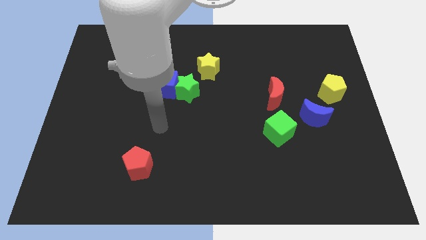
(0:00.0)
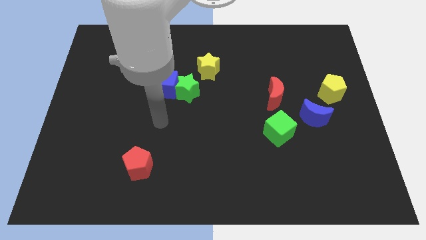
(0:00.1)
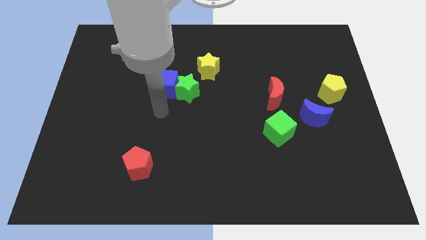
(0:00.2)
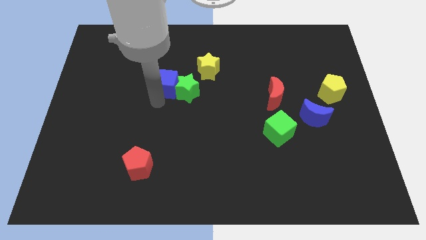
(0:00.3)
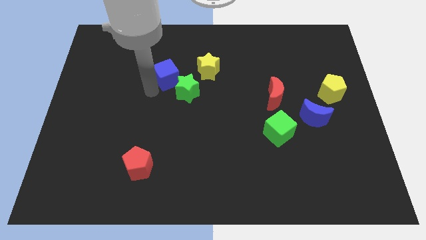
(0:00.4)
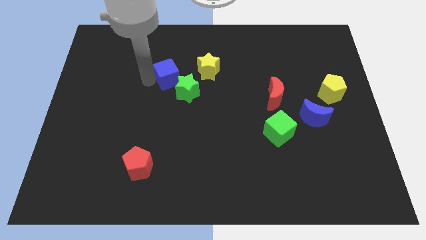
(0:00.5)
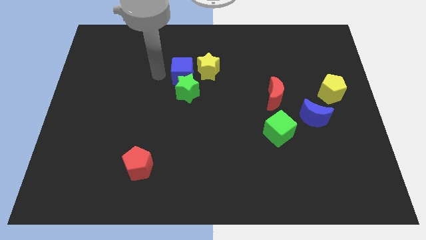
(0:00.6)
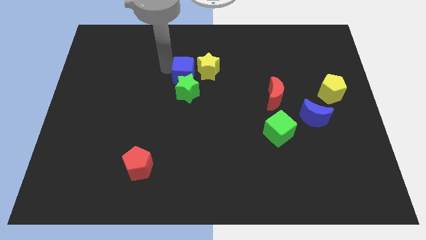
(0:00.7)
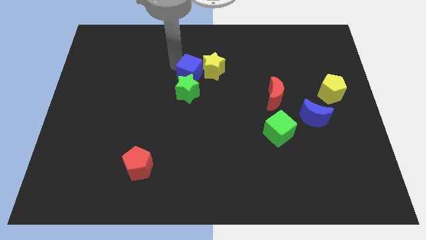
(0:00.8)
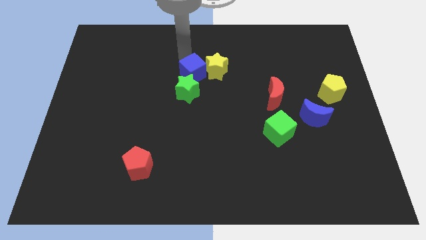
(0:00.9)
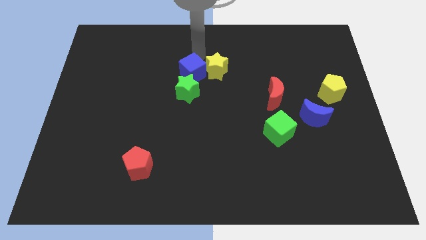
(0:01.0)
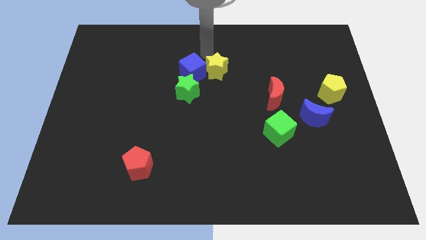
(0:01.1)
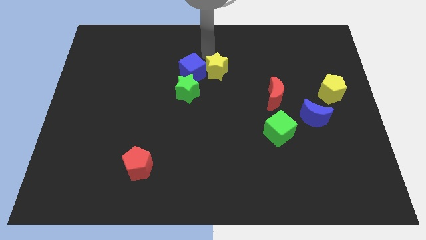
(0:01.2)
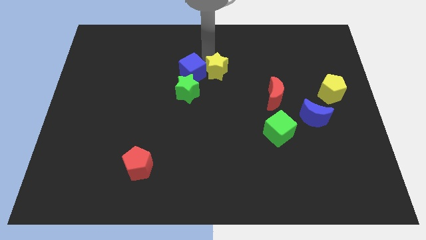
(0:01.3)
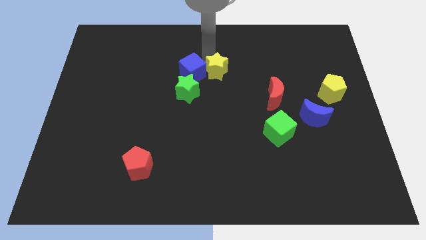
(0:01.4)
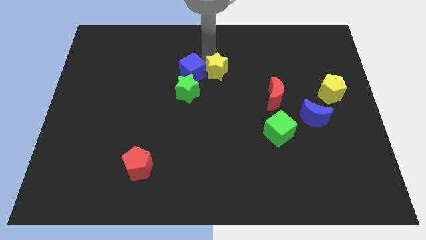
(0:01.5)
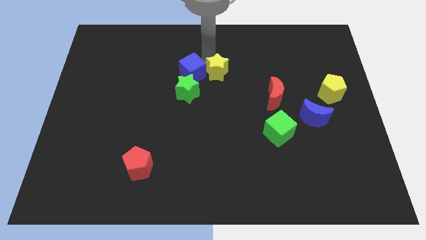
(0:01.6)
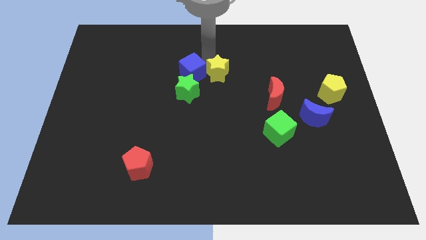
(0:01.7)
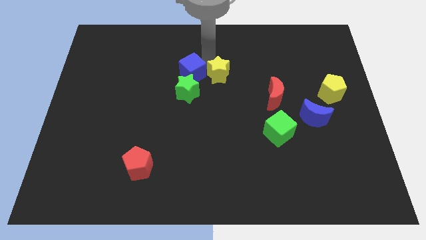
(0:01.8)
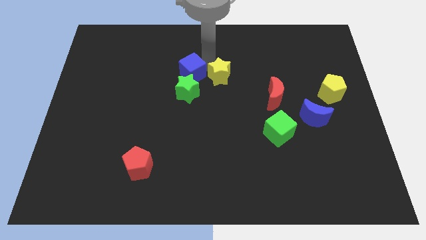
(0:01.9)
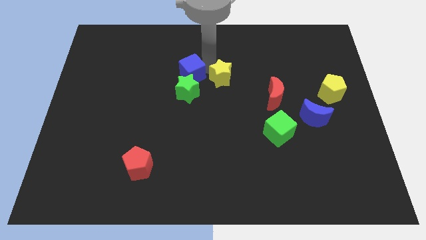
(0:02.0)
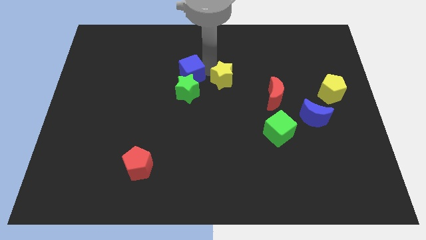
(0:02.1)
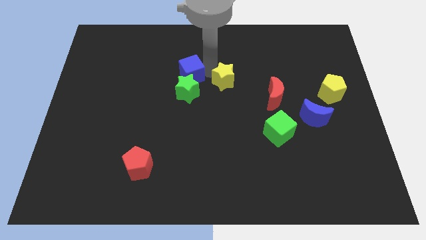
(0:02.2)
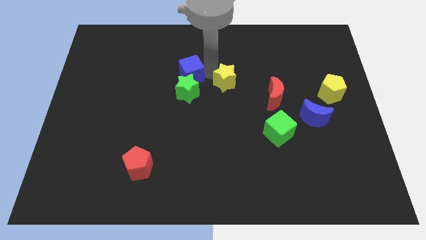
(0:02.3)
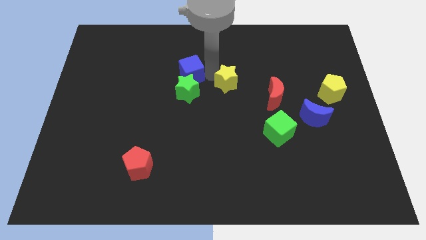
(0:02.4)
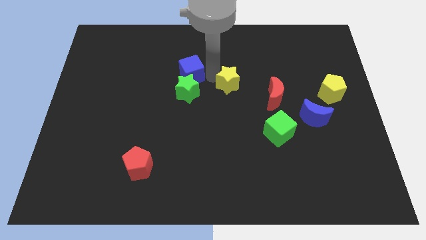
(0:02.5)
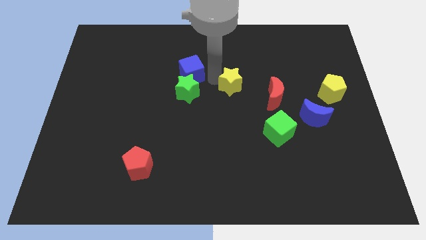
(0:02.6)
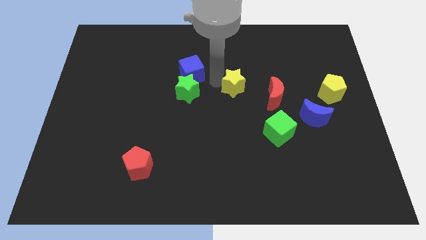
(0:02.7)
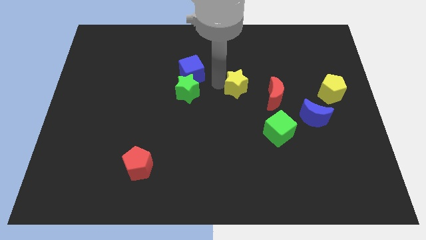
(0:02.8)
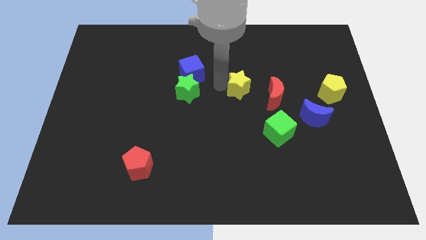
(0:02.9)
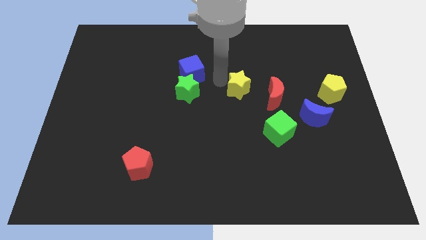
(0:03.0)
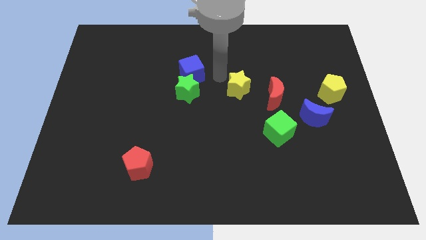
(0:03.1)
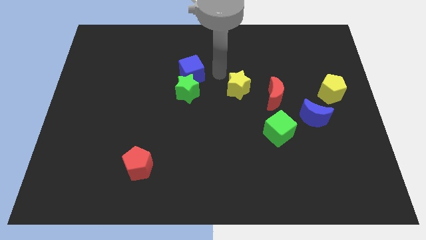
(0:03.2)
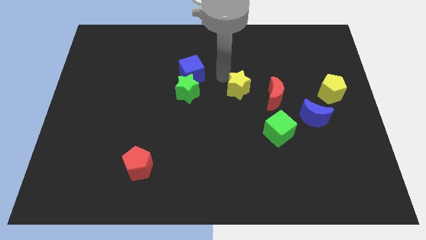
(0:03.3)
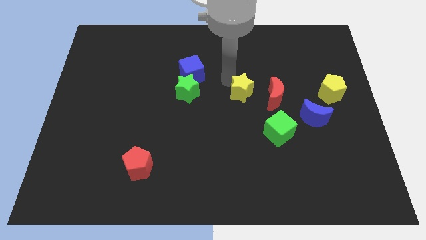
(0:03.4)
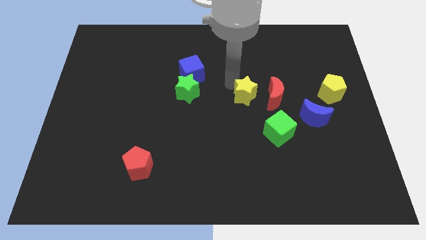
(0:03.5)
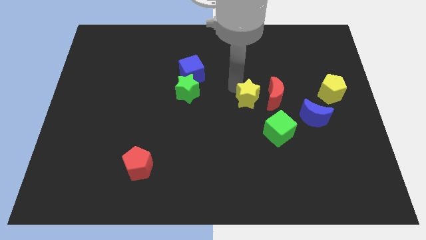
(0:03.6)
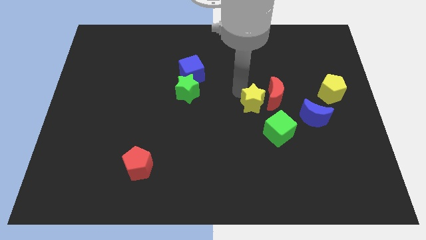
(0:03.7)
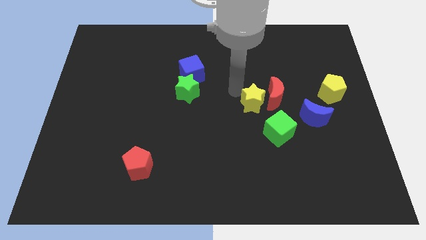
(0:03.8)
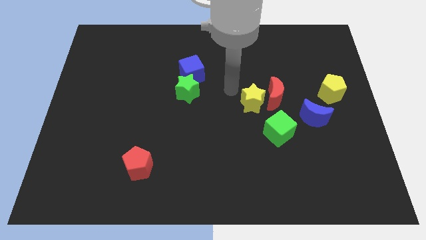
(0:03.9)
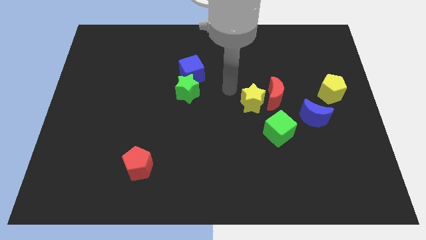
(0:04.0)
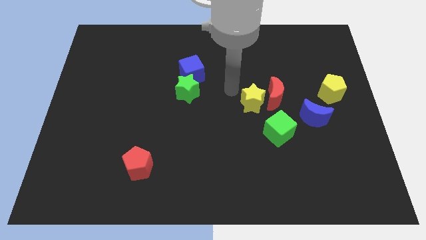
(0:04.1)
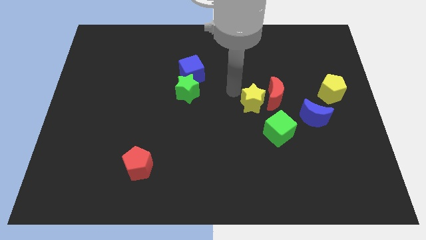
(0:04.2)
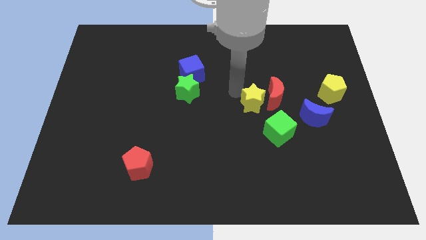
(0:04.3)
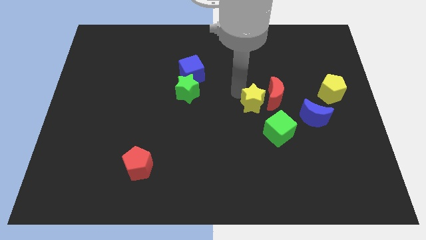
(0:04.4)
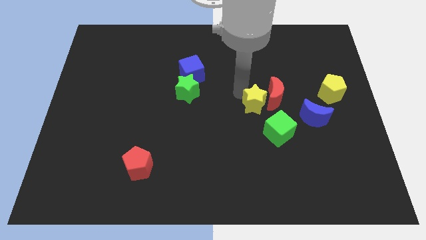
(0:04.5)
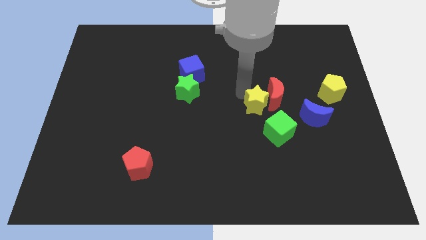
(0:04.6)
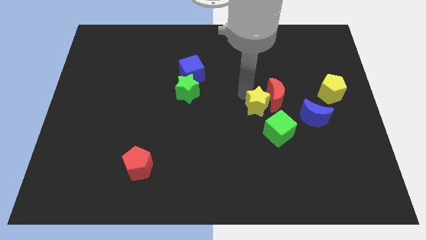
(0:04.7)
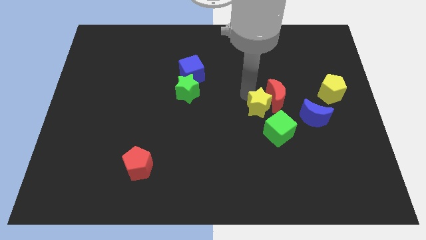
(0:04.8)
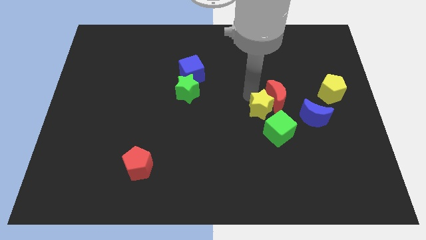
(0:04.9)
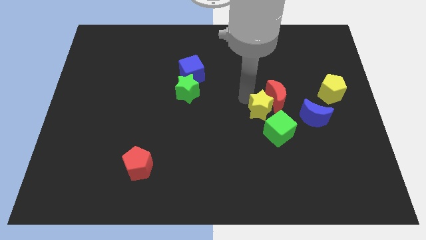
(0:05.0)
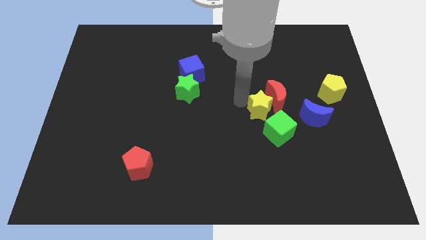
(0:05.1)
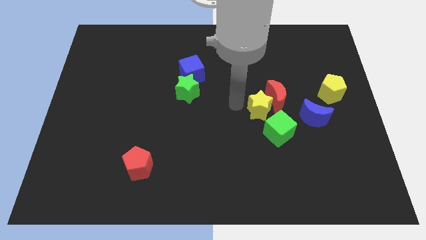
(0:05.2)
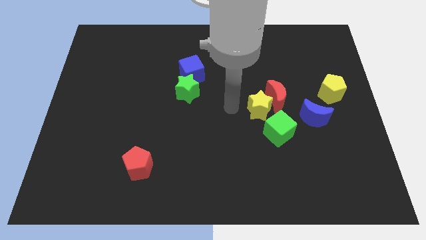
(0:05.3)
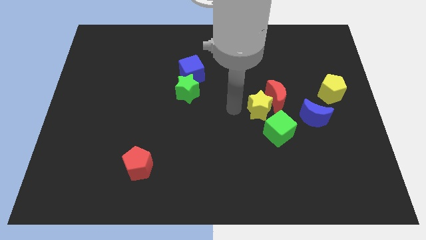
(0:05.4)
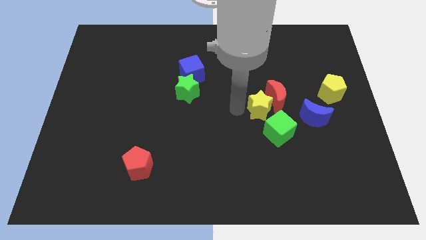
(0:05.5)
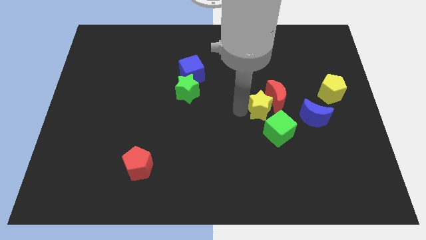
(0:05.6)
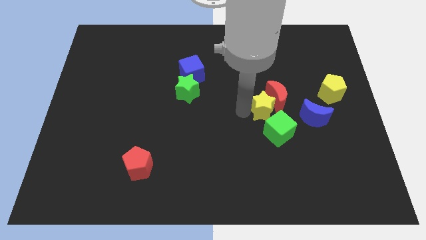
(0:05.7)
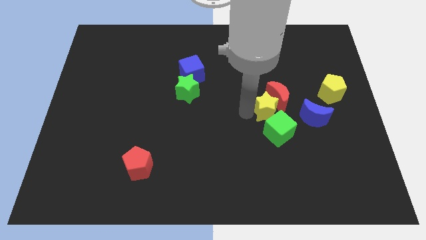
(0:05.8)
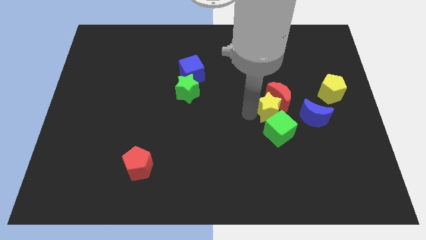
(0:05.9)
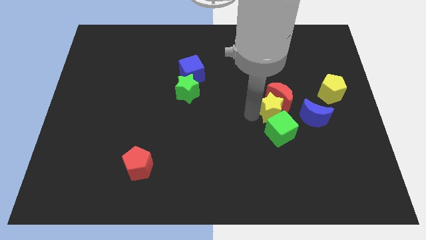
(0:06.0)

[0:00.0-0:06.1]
slide the yellow star diagonally downwards and right

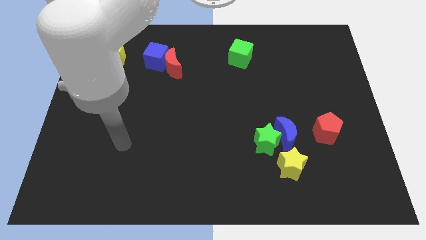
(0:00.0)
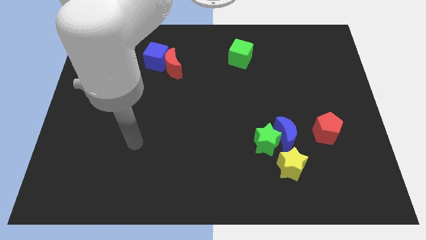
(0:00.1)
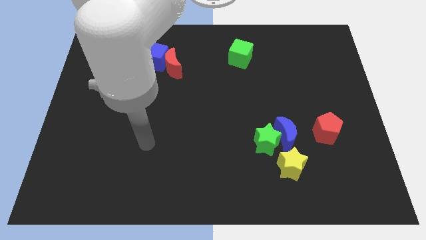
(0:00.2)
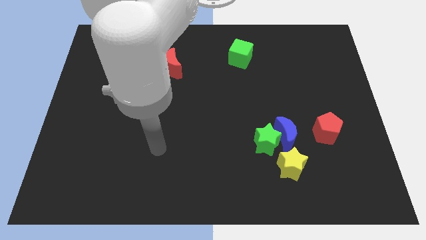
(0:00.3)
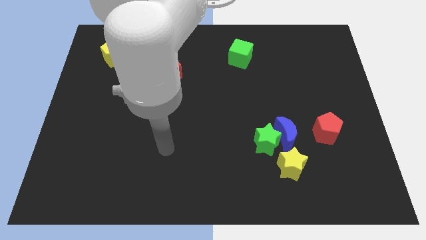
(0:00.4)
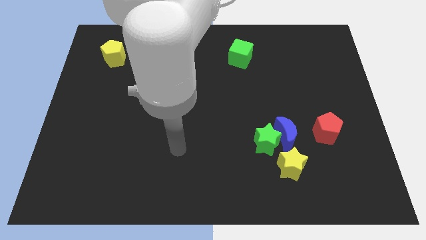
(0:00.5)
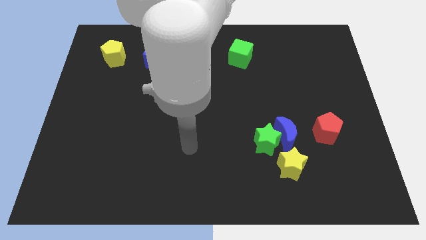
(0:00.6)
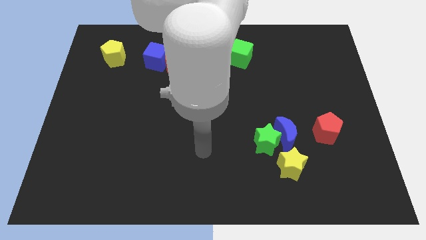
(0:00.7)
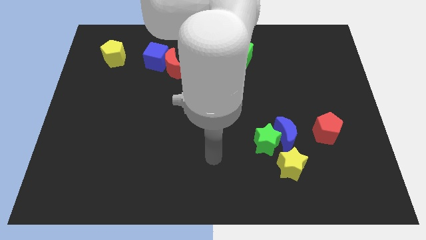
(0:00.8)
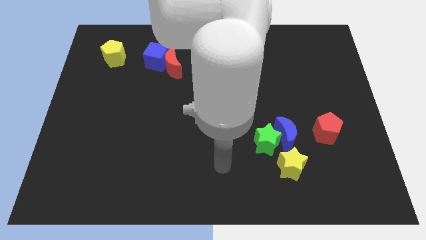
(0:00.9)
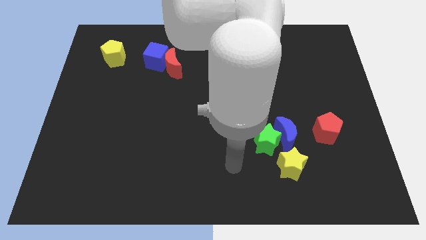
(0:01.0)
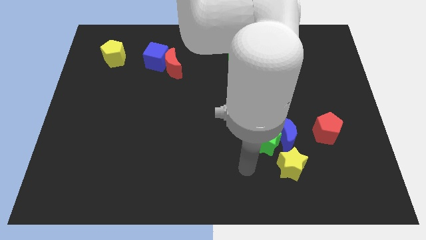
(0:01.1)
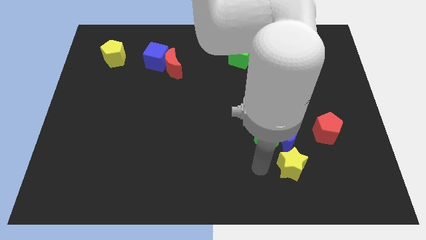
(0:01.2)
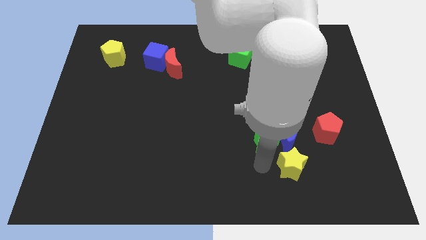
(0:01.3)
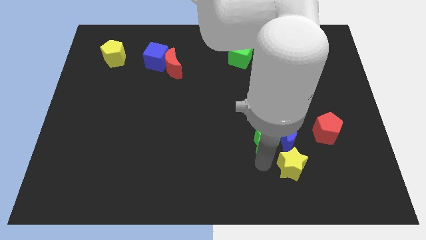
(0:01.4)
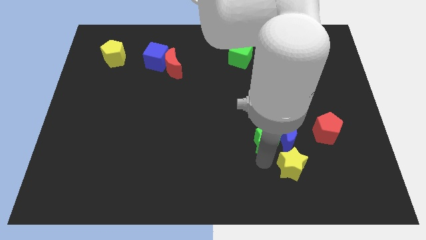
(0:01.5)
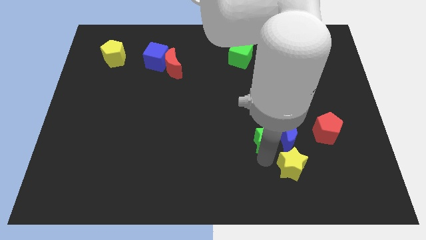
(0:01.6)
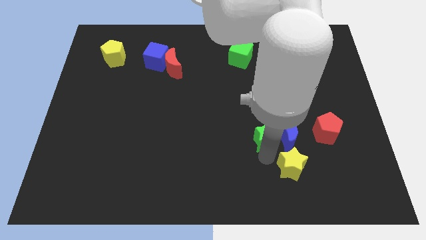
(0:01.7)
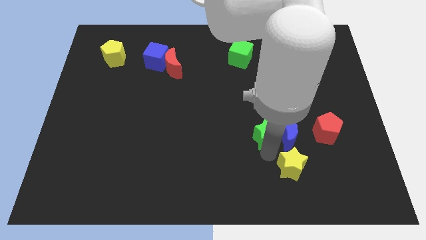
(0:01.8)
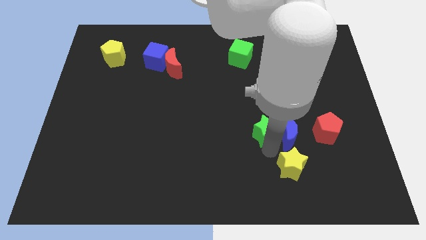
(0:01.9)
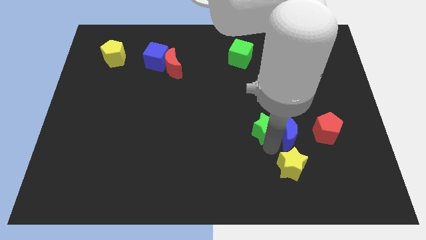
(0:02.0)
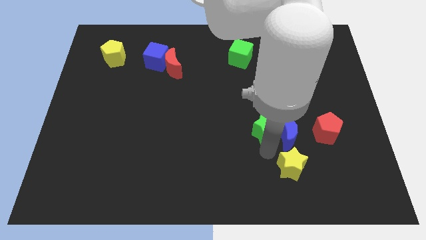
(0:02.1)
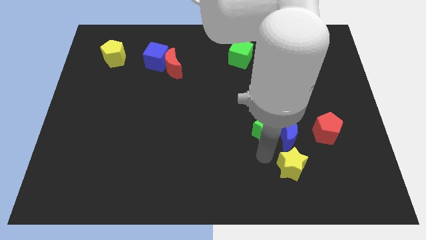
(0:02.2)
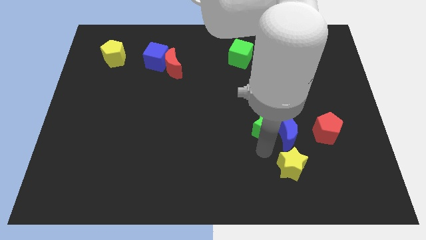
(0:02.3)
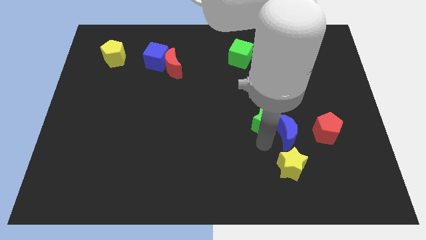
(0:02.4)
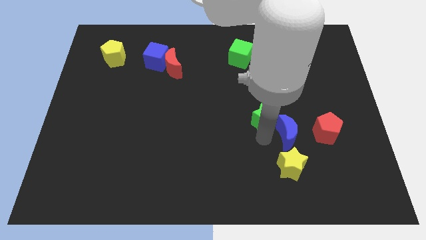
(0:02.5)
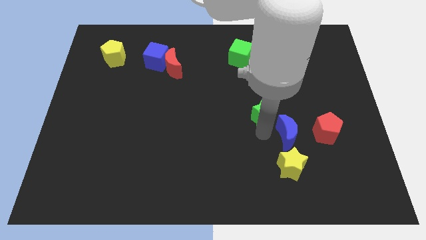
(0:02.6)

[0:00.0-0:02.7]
move the green star up somewhat
